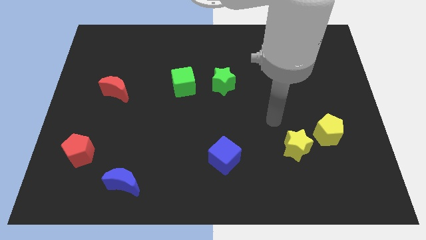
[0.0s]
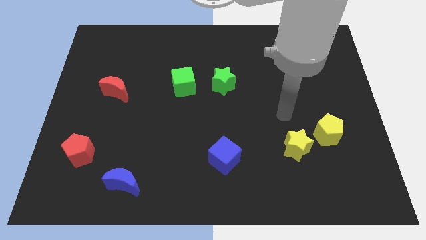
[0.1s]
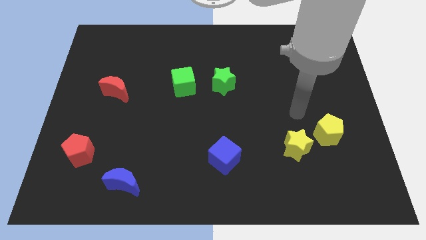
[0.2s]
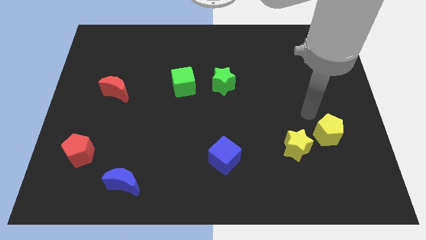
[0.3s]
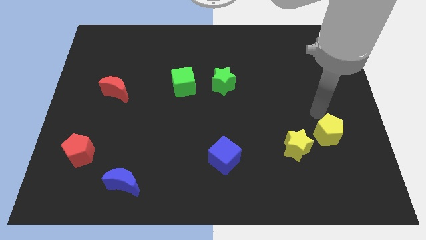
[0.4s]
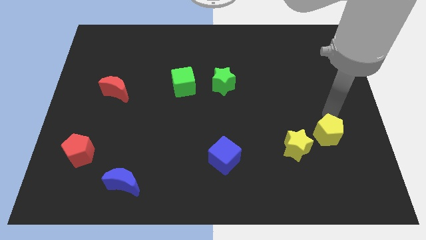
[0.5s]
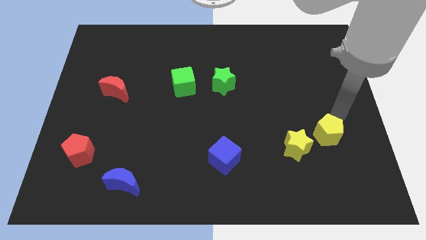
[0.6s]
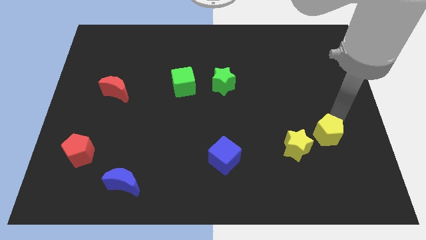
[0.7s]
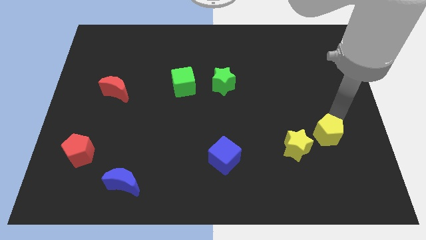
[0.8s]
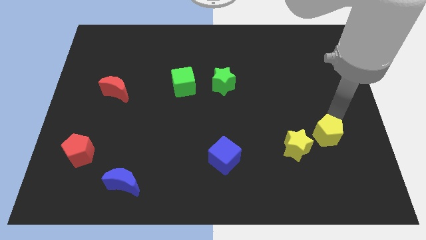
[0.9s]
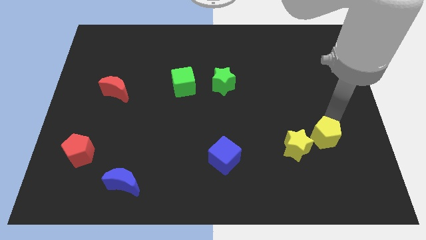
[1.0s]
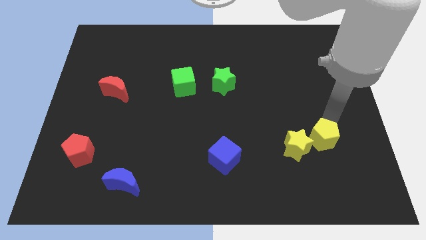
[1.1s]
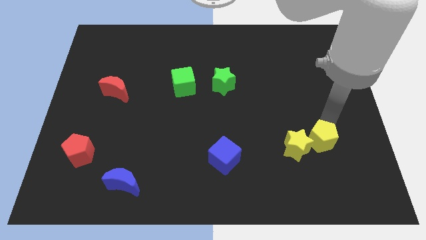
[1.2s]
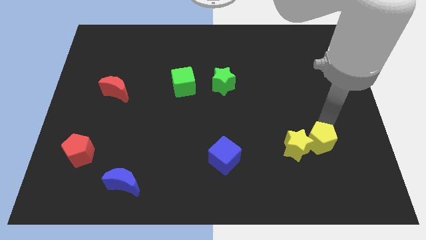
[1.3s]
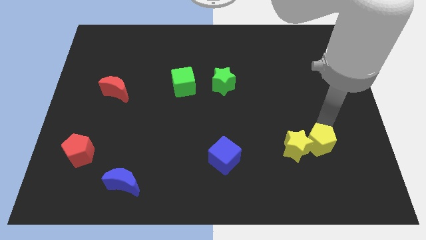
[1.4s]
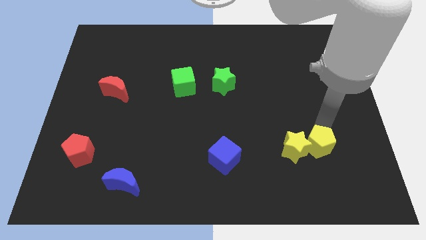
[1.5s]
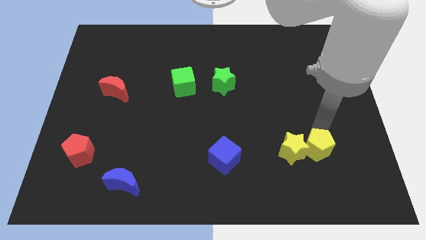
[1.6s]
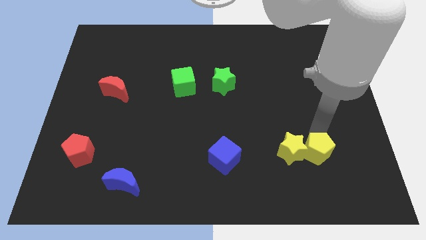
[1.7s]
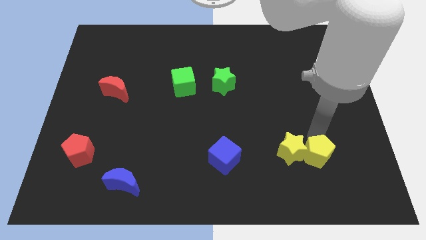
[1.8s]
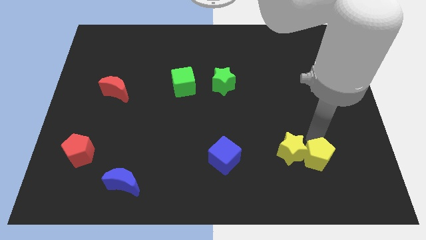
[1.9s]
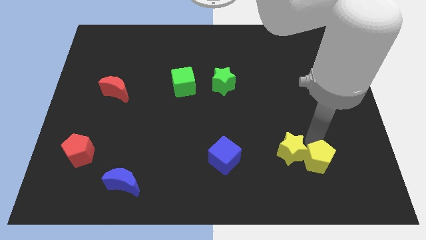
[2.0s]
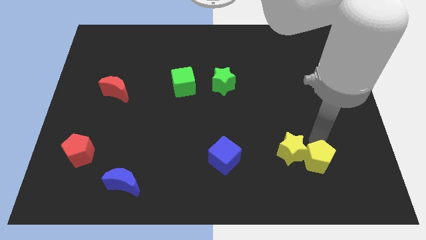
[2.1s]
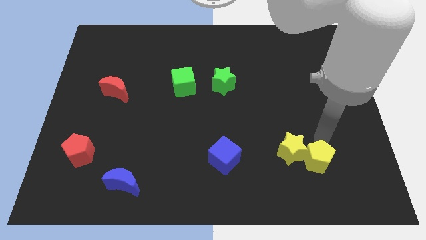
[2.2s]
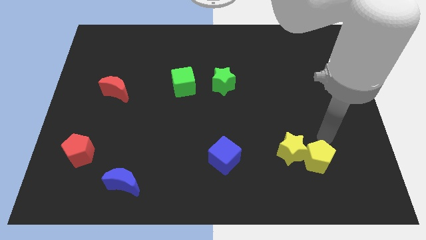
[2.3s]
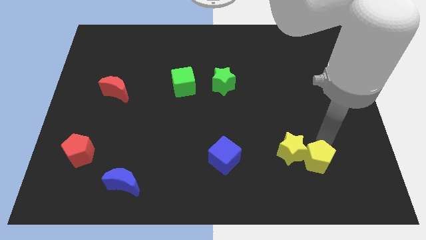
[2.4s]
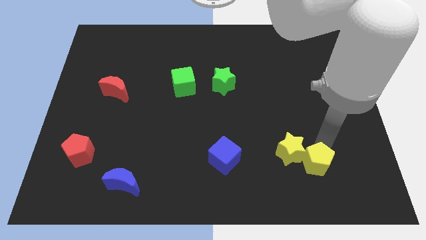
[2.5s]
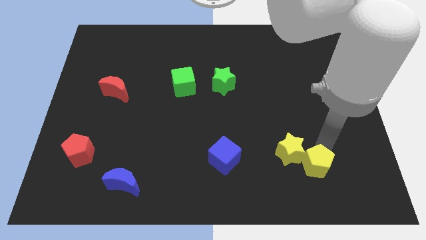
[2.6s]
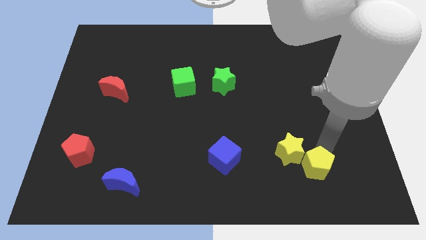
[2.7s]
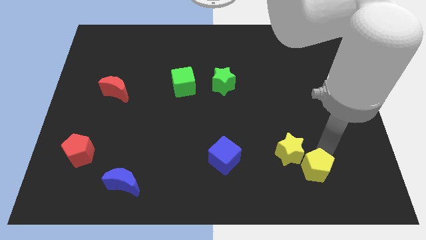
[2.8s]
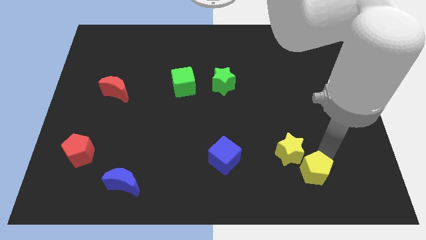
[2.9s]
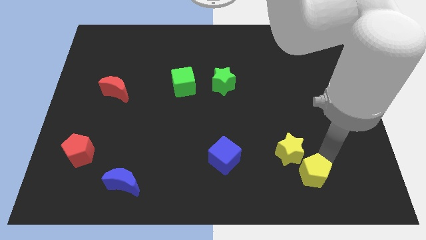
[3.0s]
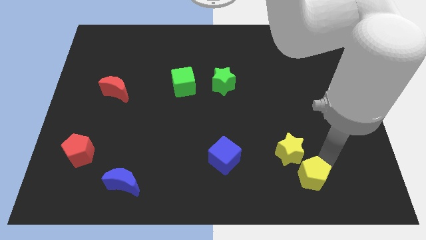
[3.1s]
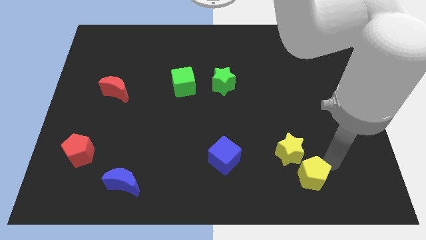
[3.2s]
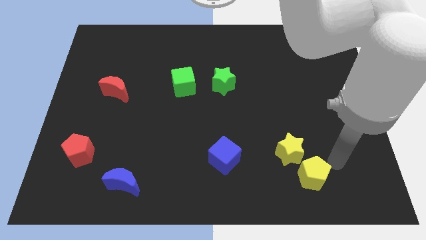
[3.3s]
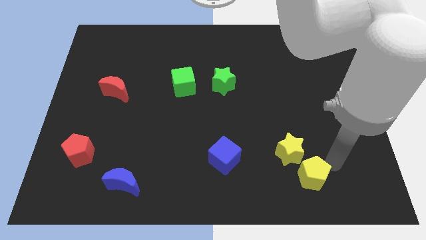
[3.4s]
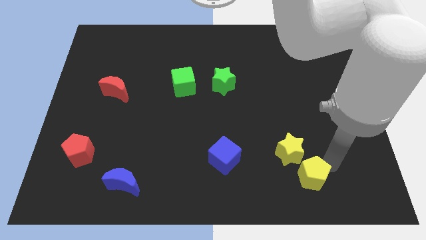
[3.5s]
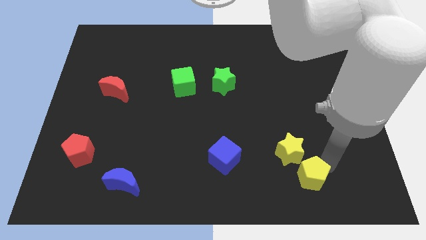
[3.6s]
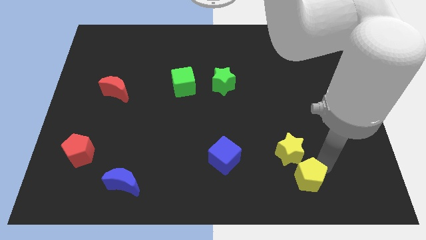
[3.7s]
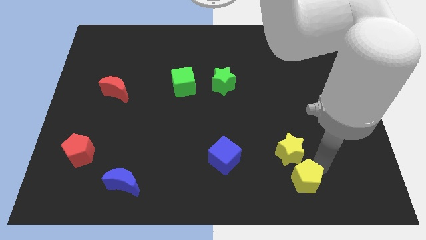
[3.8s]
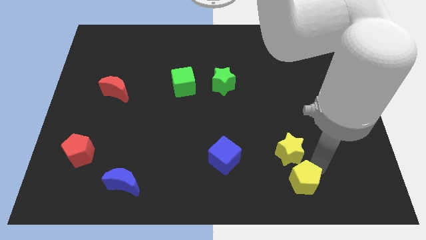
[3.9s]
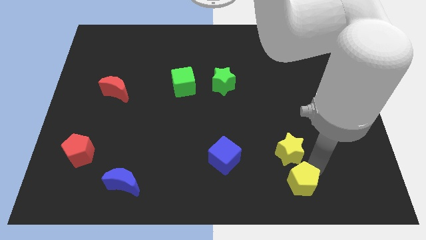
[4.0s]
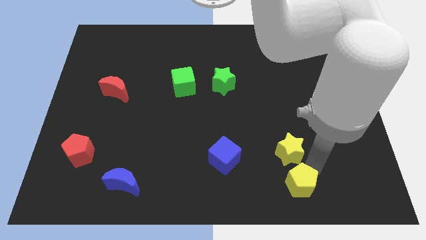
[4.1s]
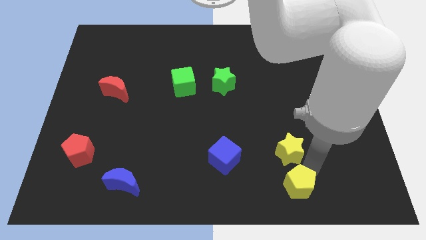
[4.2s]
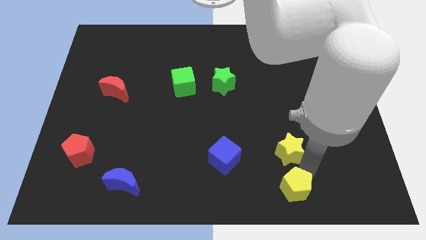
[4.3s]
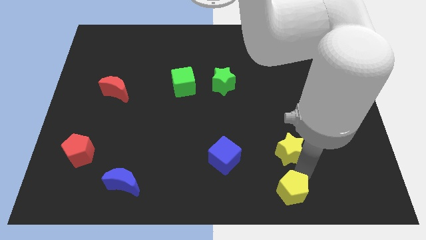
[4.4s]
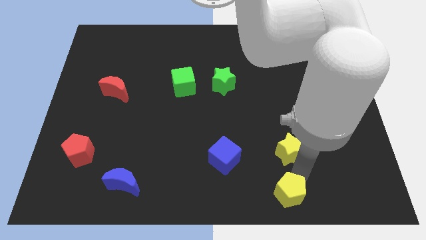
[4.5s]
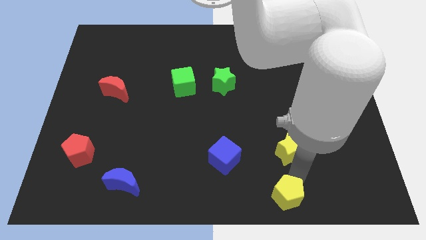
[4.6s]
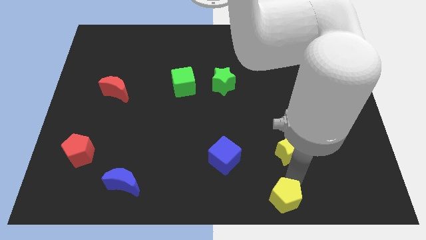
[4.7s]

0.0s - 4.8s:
push the yellow pentagon to the bottom side

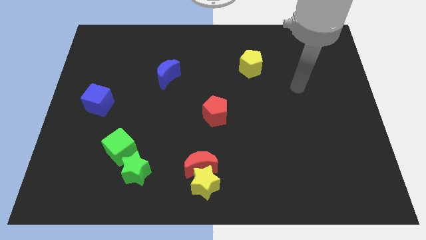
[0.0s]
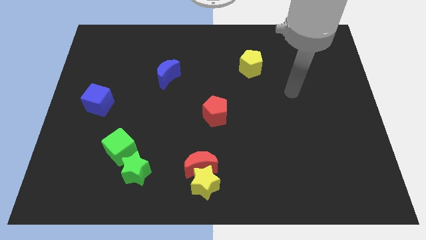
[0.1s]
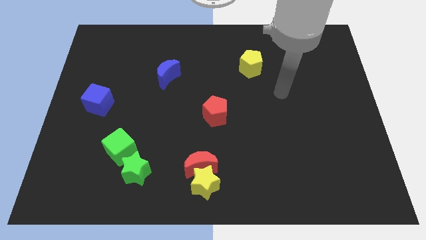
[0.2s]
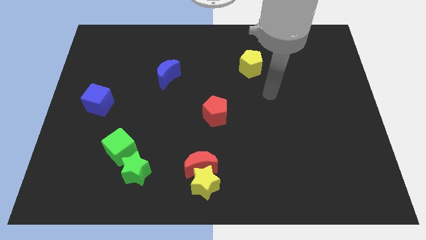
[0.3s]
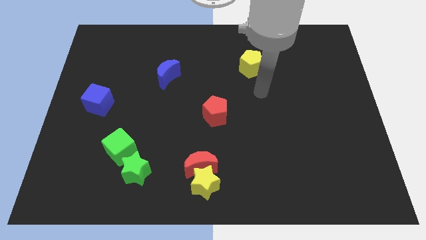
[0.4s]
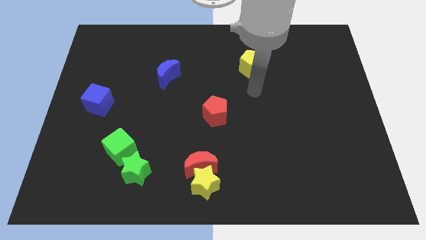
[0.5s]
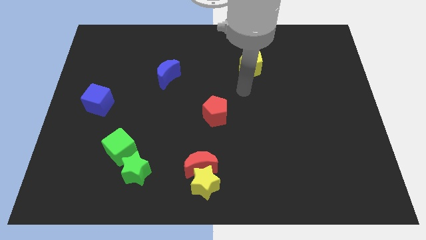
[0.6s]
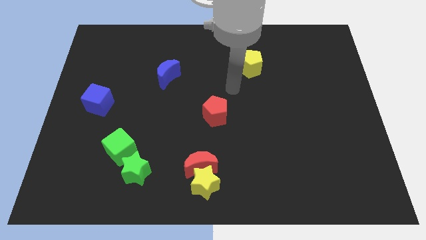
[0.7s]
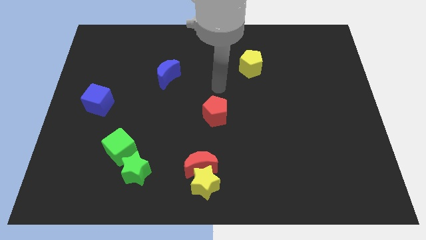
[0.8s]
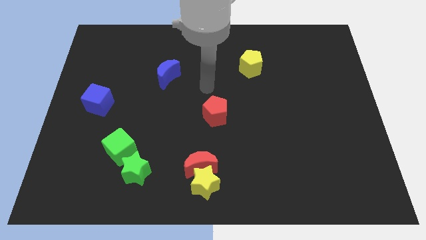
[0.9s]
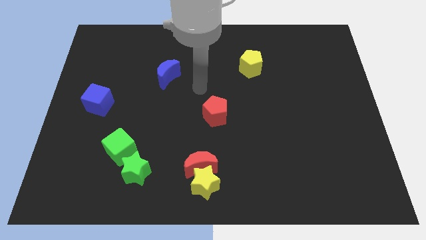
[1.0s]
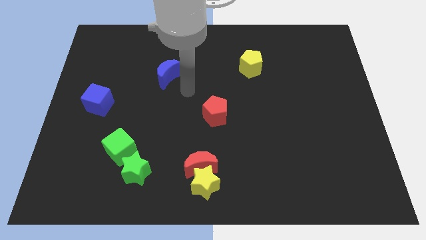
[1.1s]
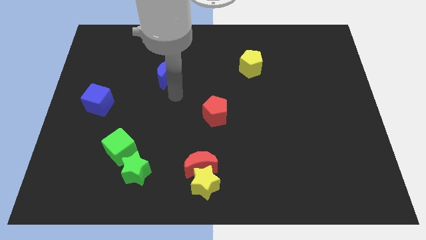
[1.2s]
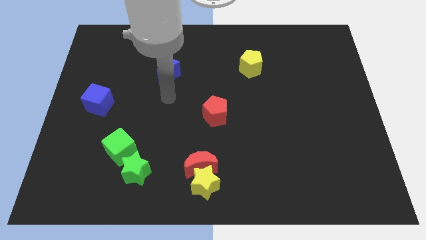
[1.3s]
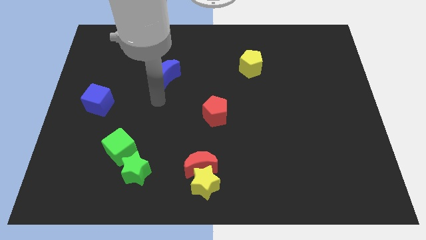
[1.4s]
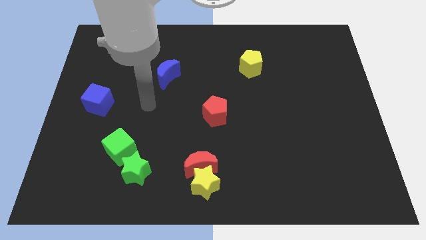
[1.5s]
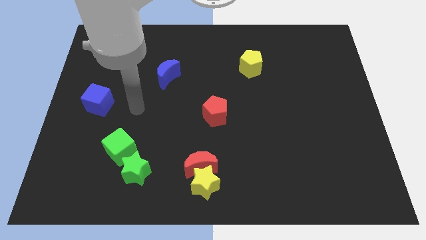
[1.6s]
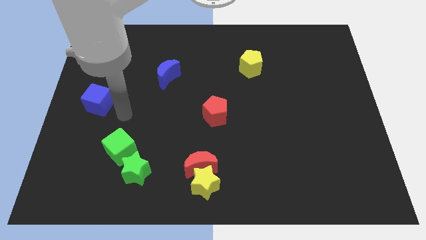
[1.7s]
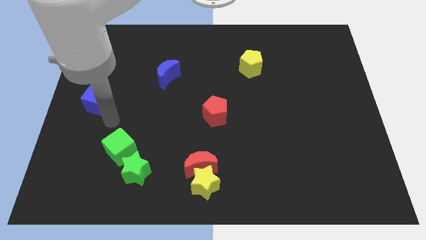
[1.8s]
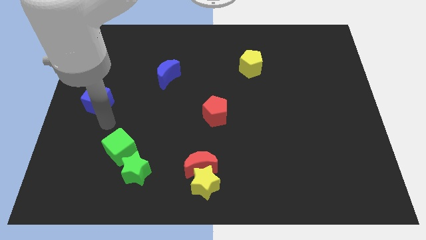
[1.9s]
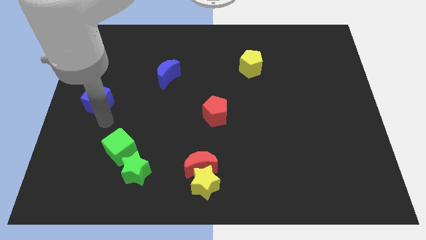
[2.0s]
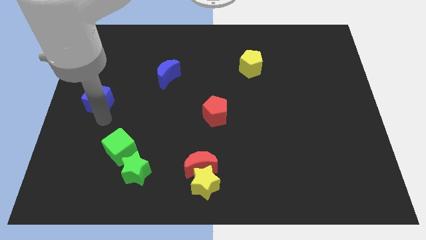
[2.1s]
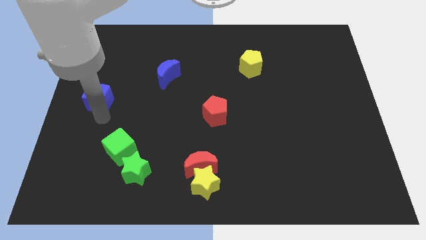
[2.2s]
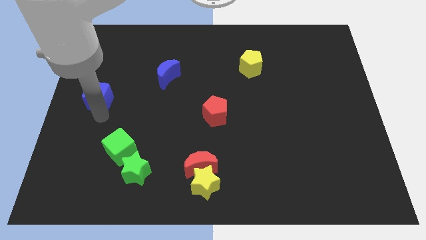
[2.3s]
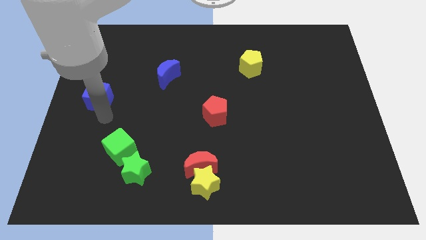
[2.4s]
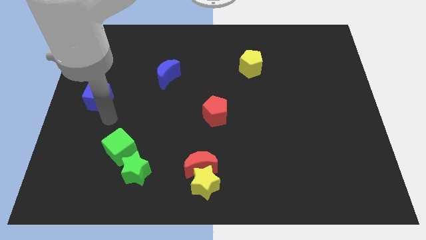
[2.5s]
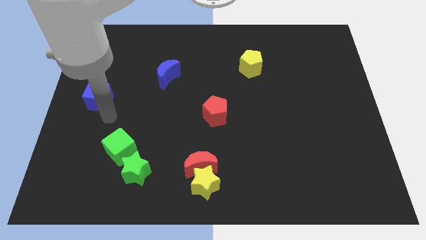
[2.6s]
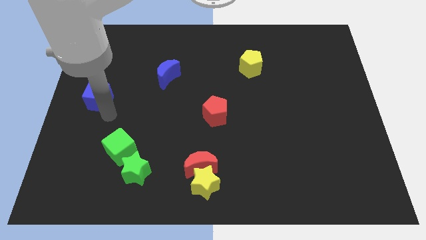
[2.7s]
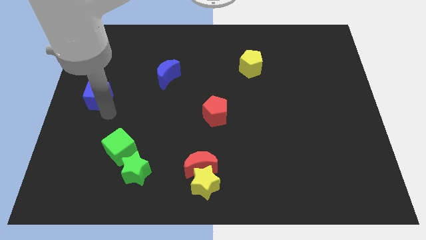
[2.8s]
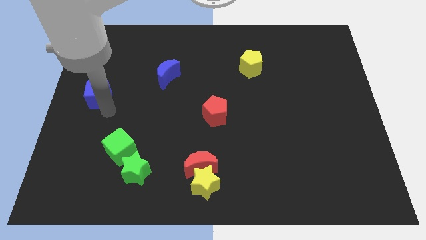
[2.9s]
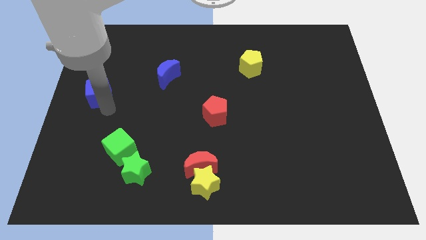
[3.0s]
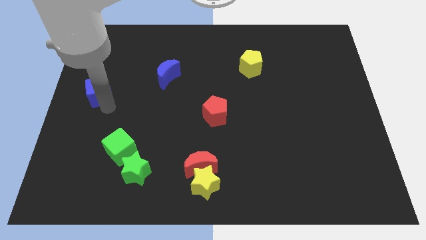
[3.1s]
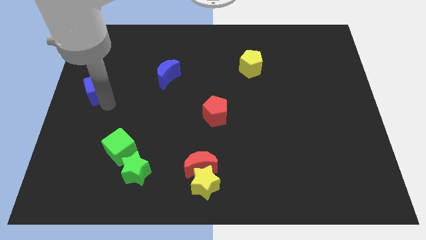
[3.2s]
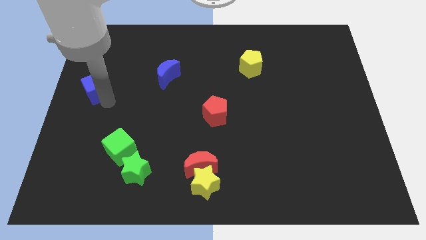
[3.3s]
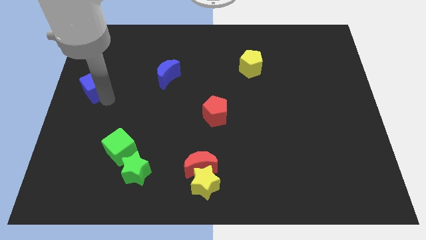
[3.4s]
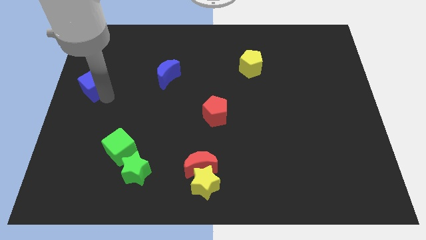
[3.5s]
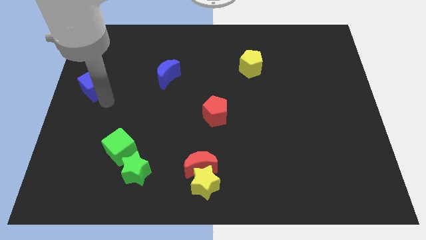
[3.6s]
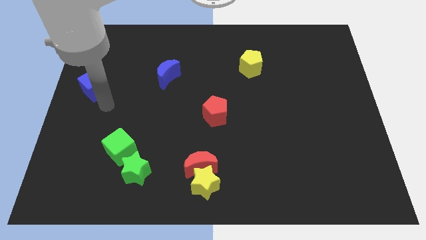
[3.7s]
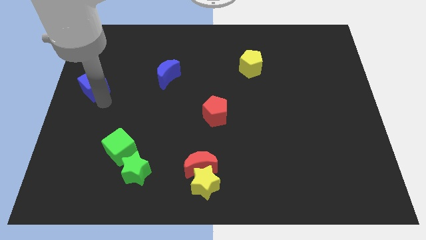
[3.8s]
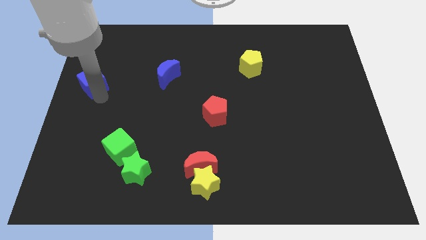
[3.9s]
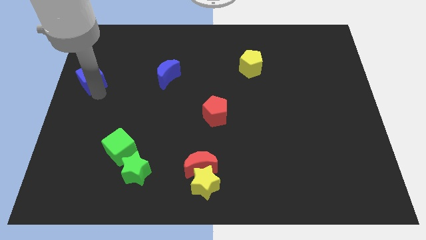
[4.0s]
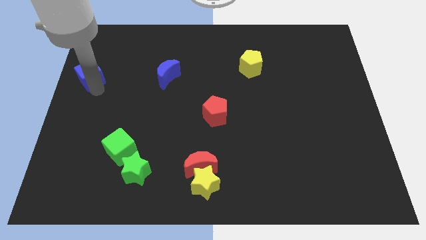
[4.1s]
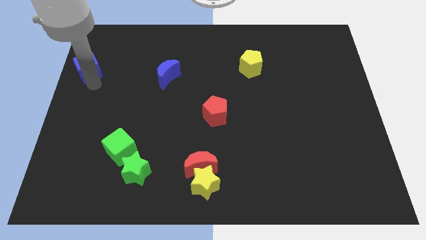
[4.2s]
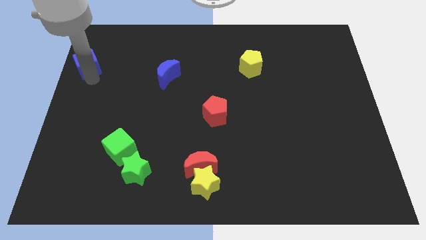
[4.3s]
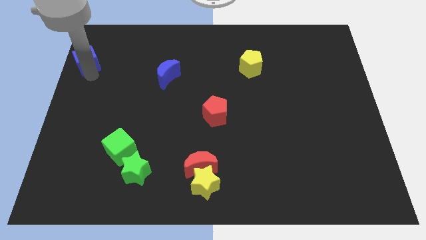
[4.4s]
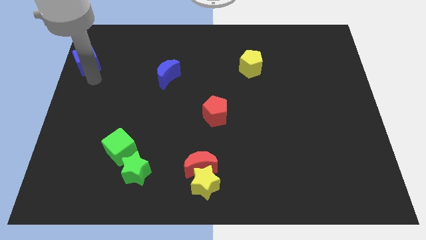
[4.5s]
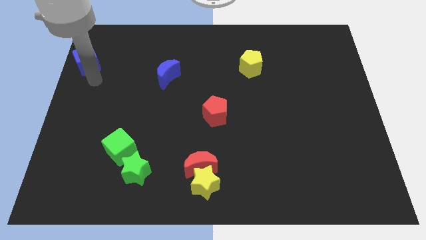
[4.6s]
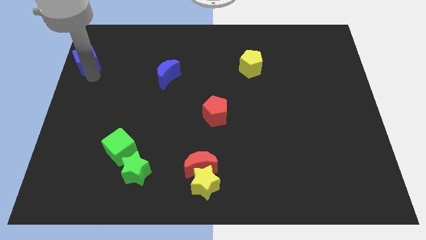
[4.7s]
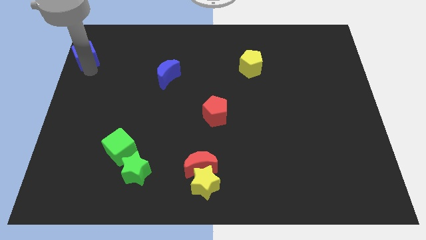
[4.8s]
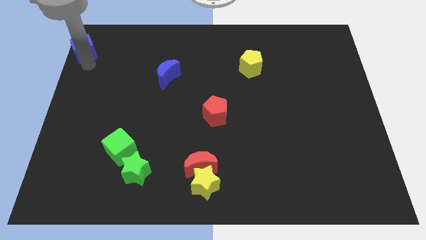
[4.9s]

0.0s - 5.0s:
move the blue cube to the top left corner
